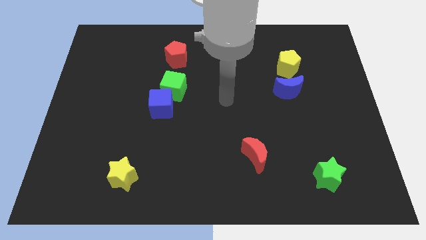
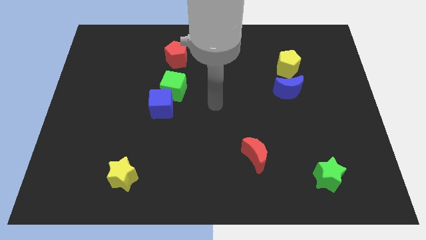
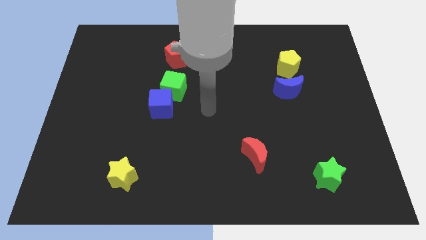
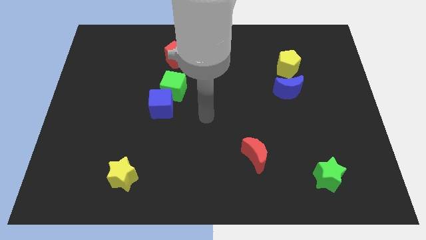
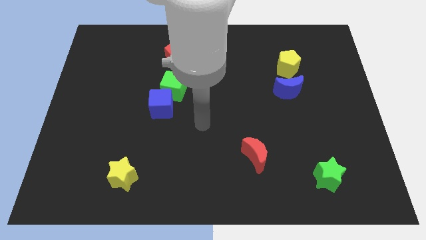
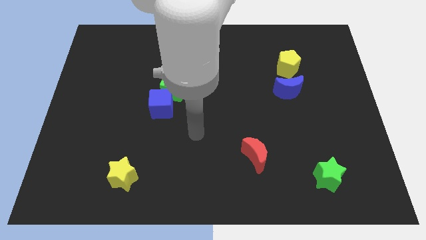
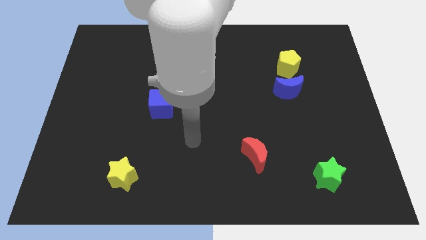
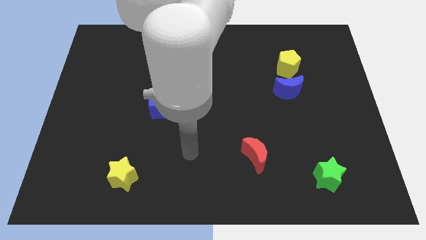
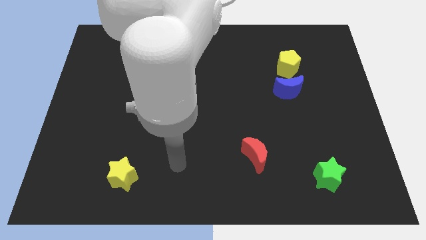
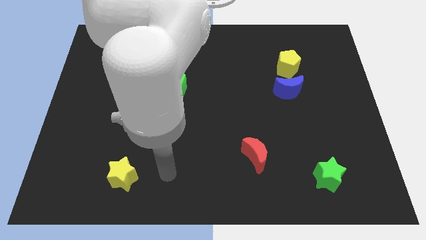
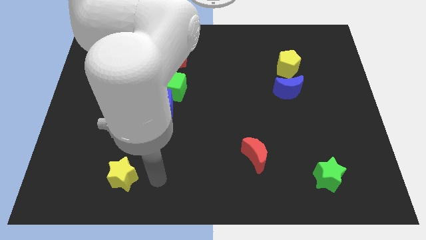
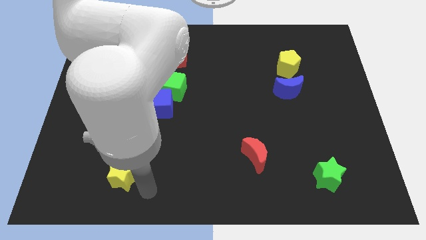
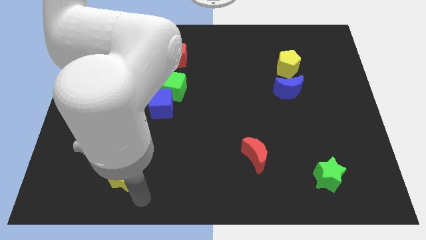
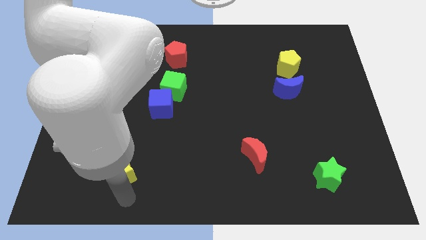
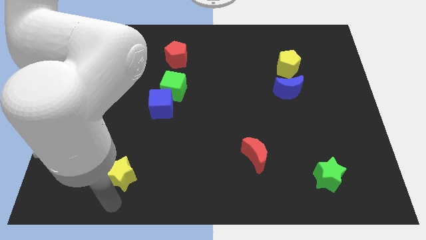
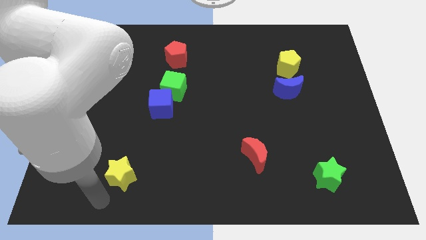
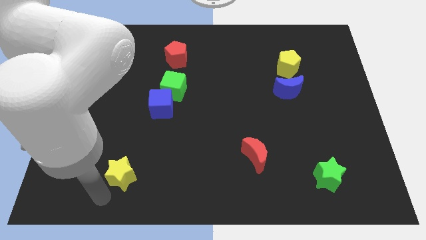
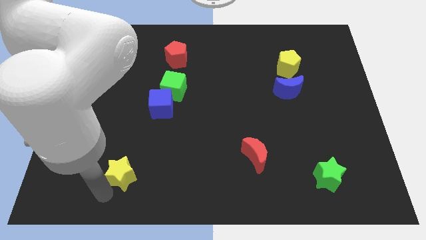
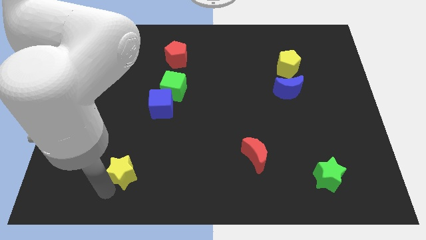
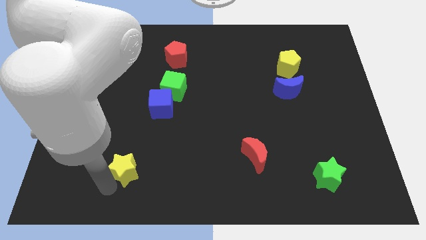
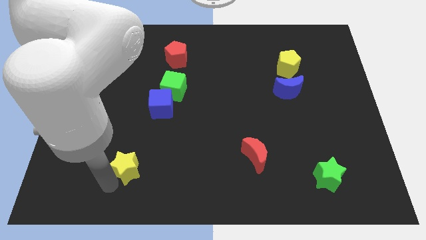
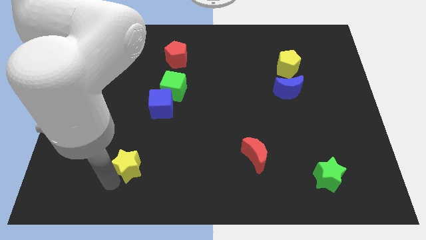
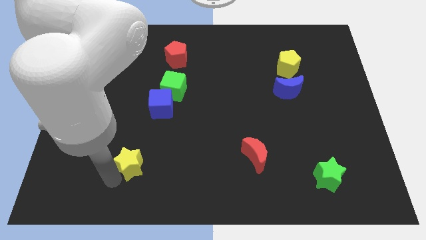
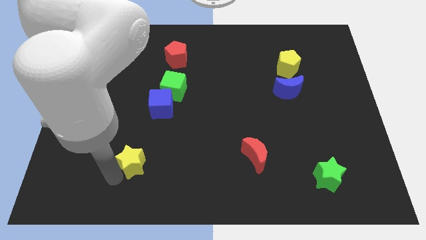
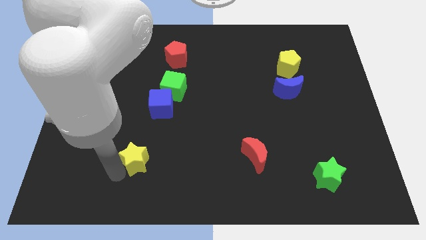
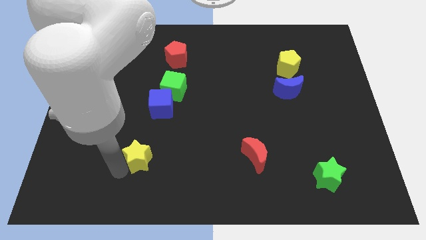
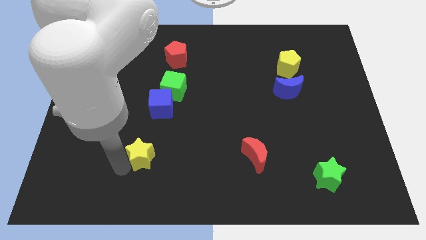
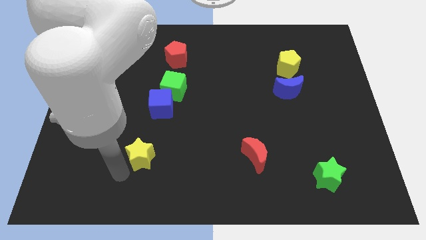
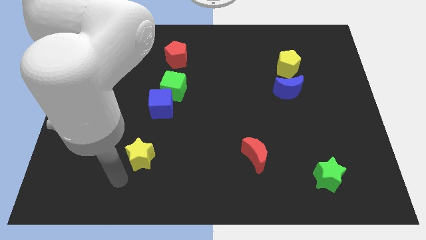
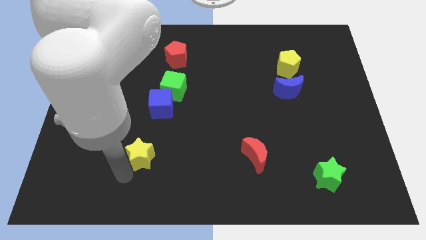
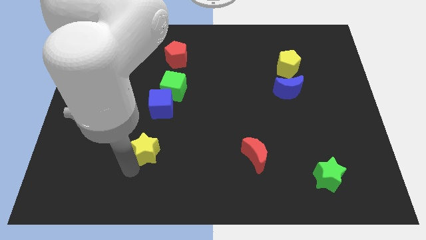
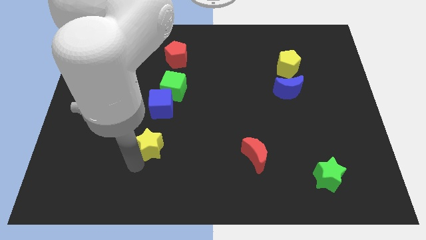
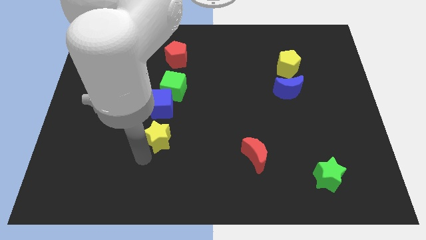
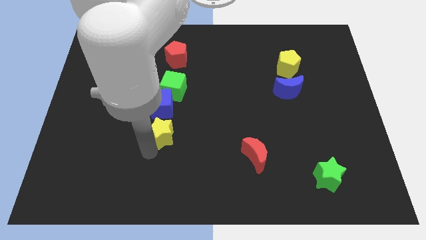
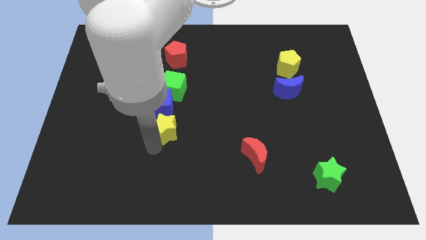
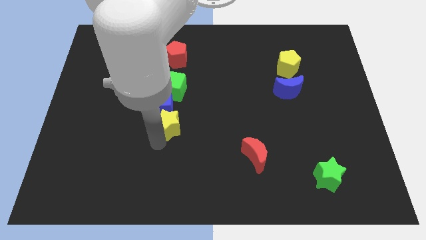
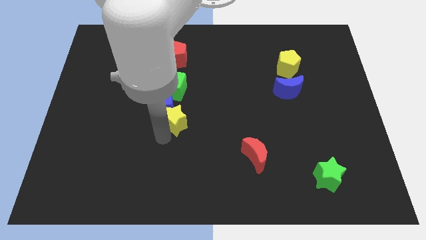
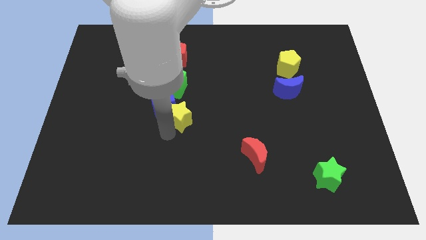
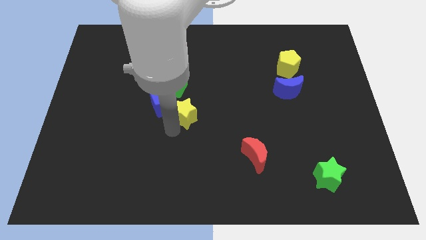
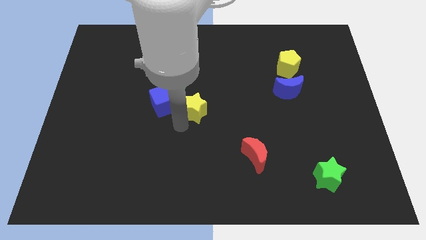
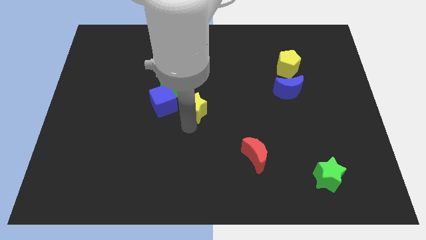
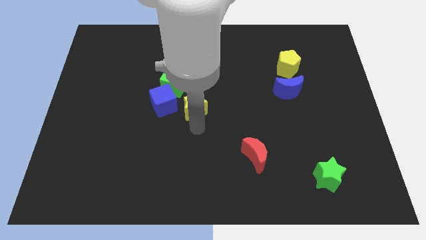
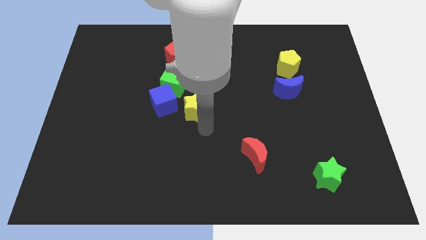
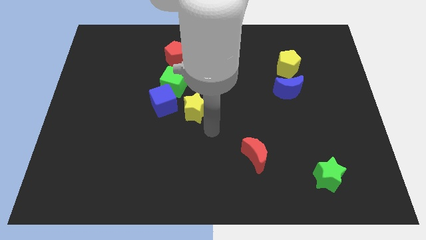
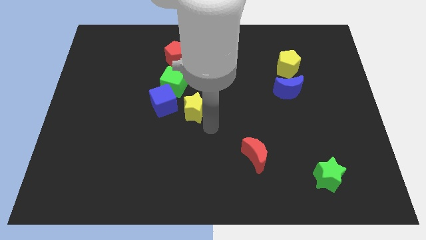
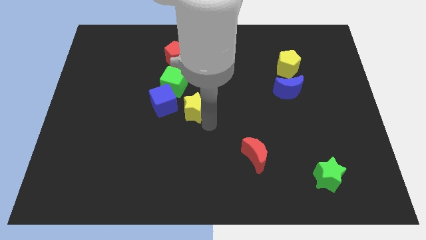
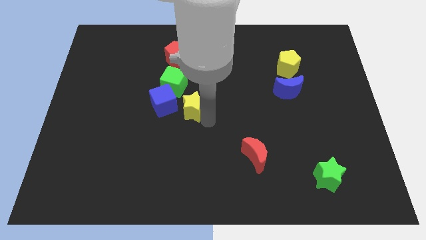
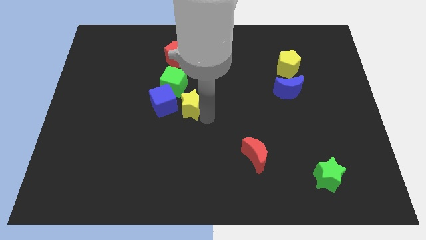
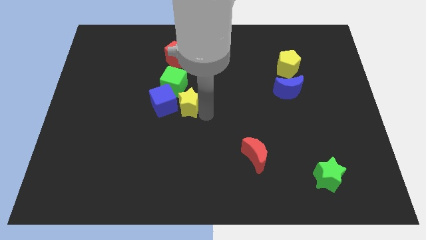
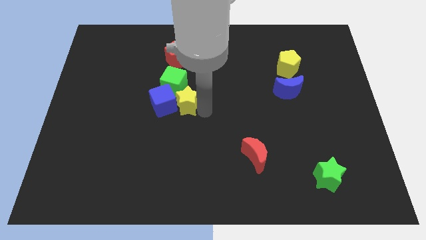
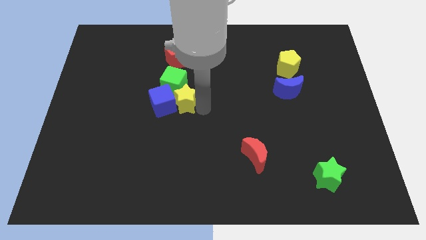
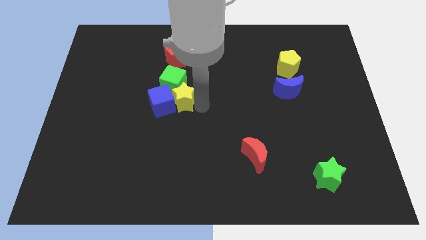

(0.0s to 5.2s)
slide the yellow star to the green cube

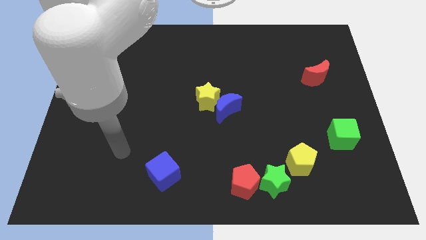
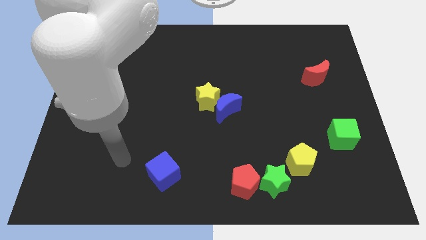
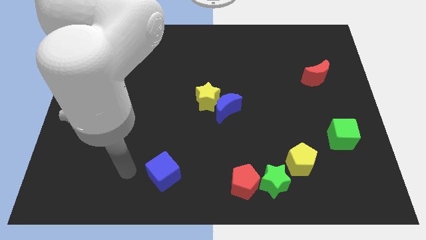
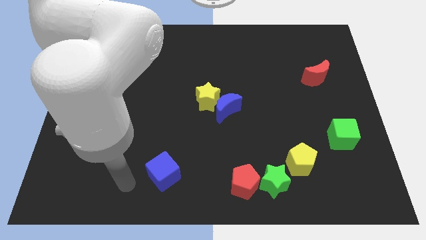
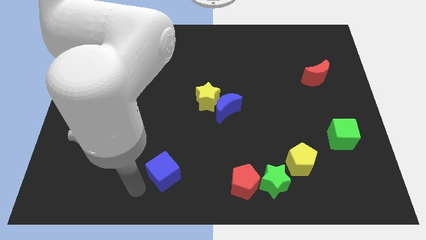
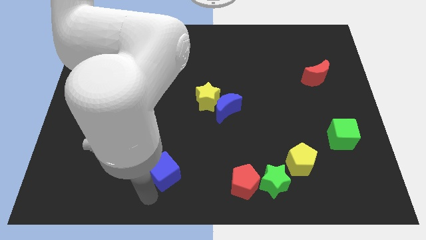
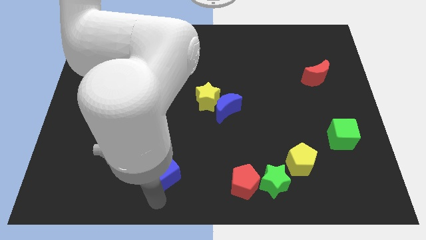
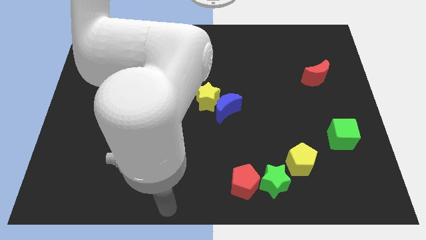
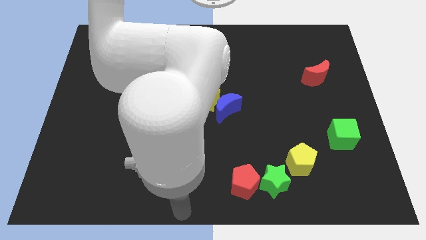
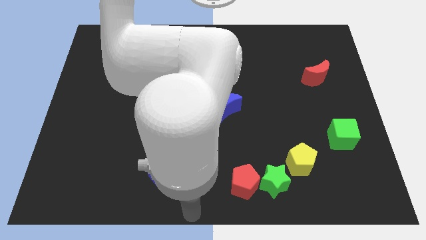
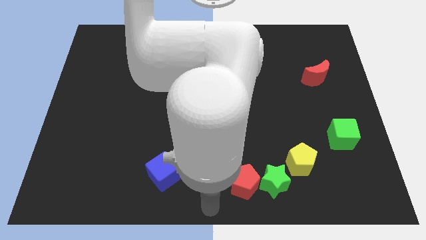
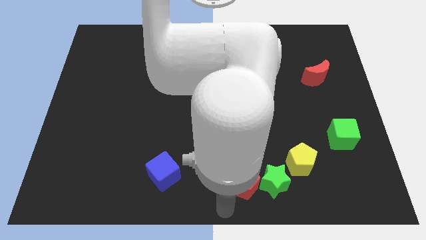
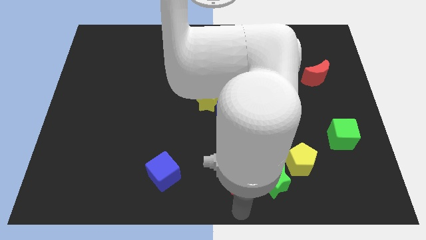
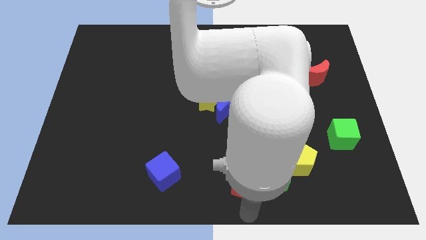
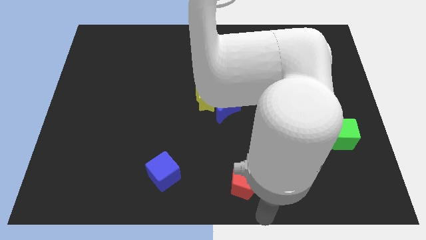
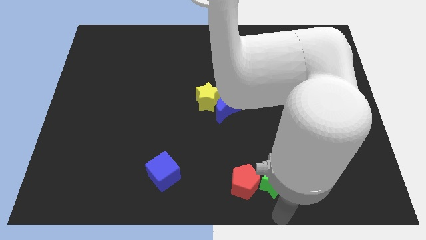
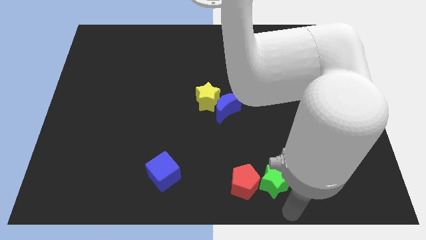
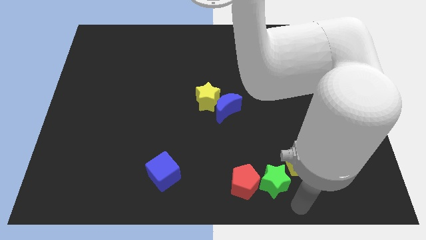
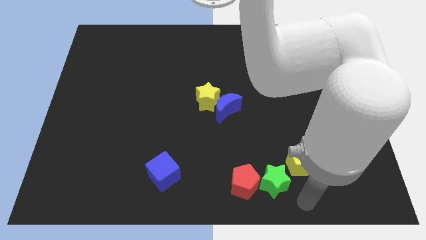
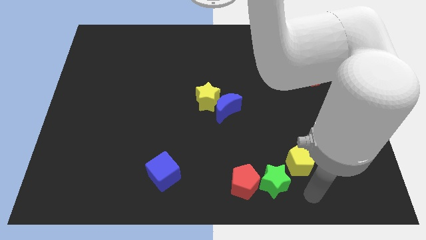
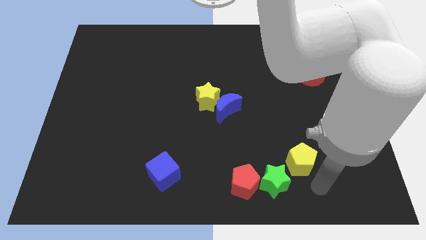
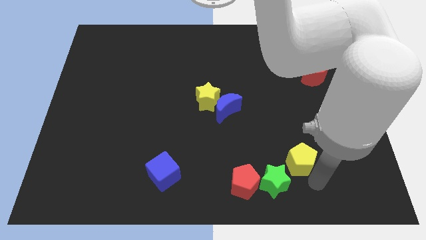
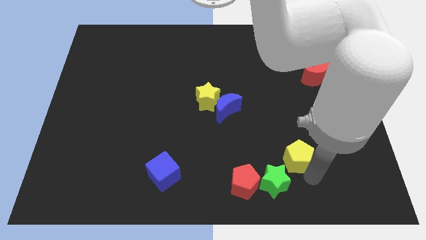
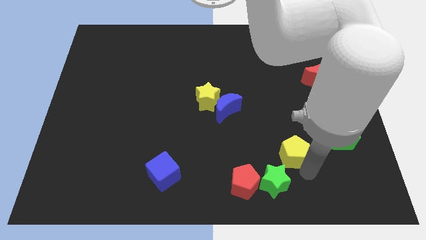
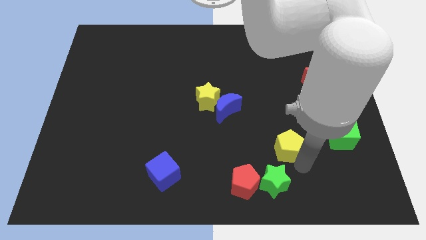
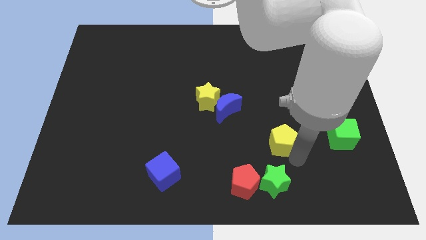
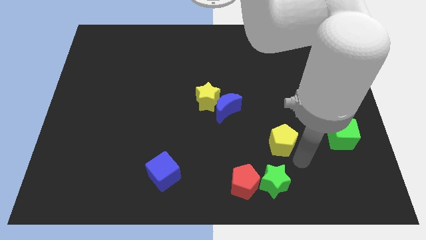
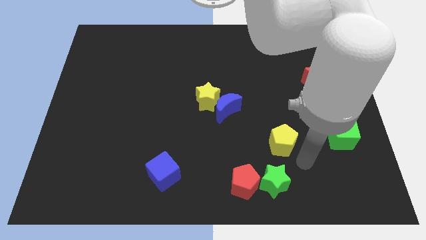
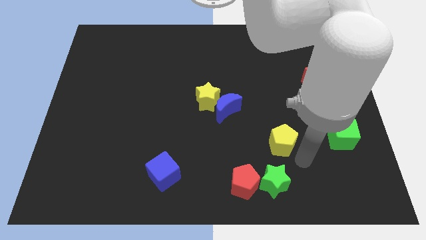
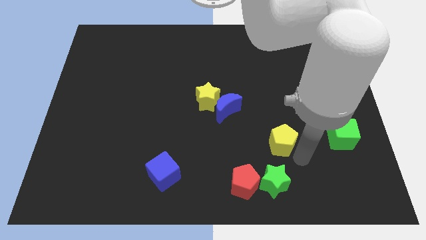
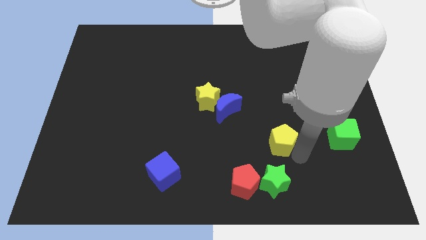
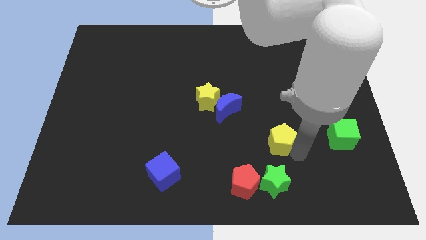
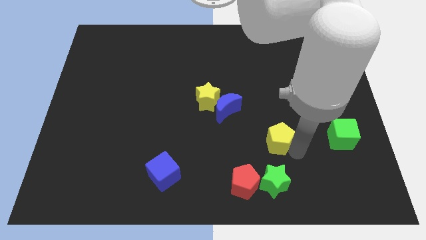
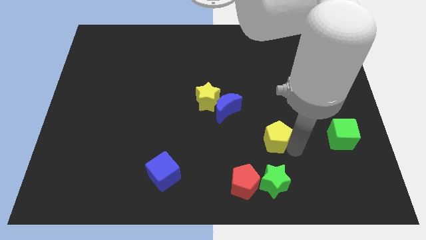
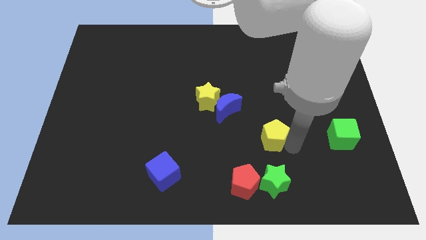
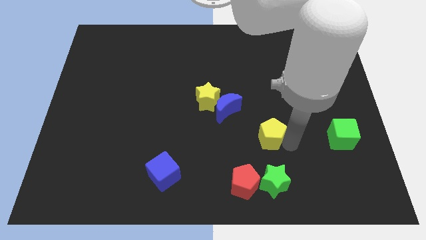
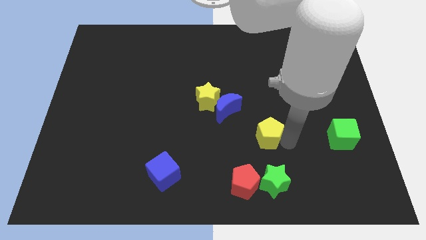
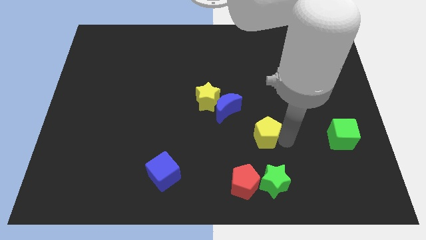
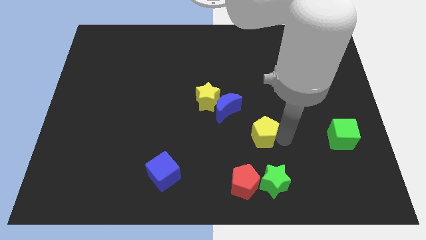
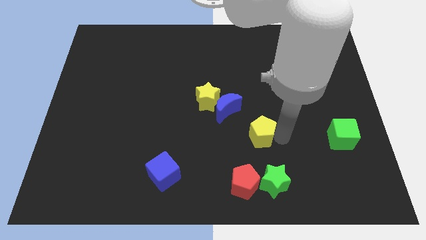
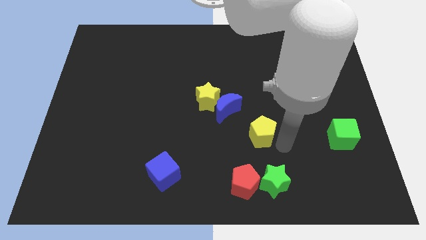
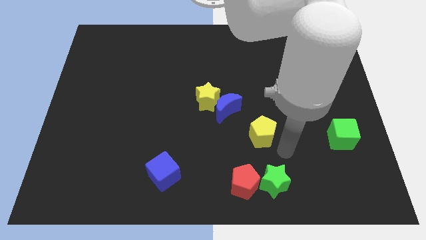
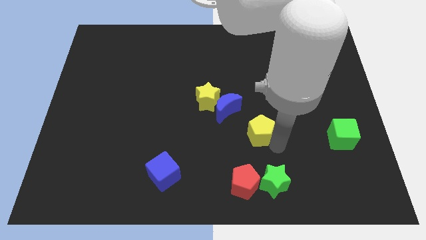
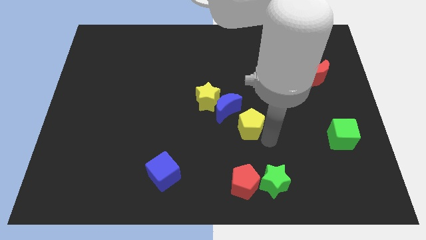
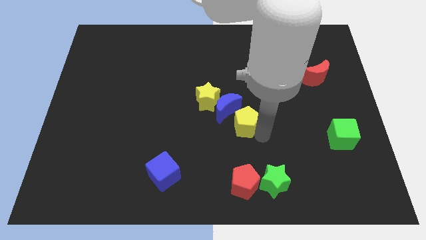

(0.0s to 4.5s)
put the yellow pentagon close to the blue moon
